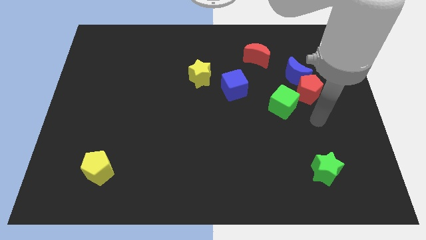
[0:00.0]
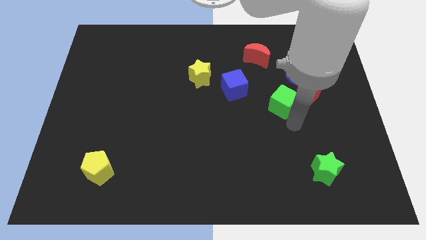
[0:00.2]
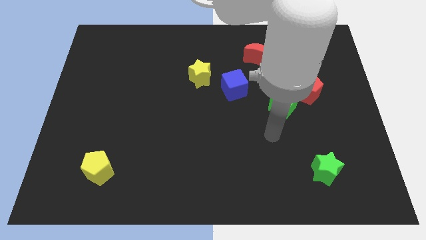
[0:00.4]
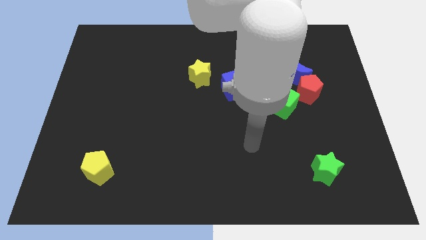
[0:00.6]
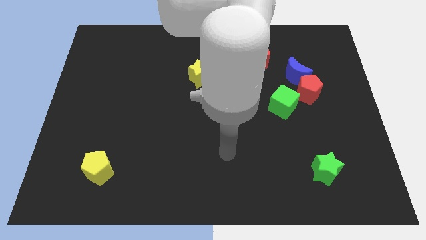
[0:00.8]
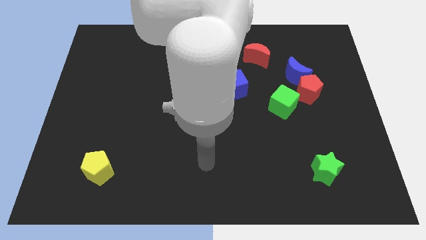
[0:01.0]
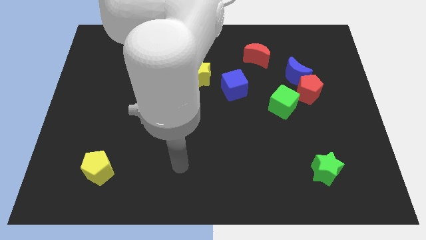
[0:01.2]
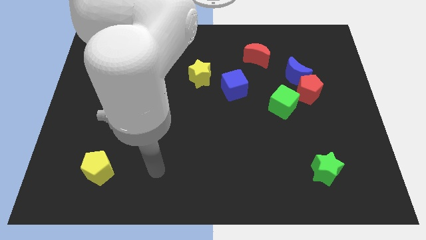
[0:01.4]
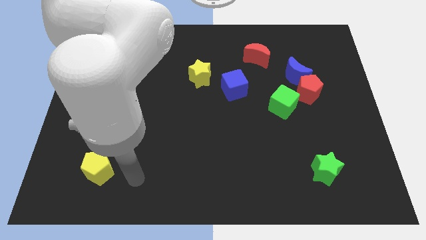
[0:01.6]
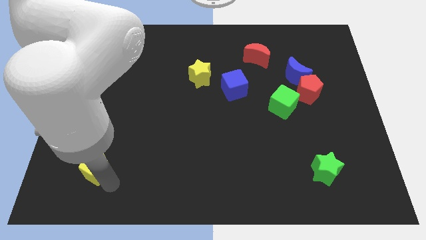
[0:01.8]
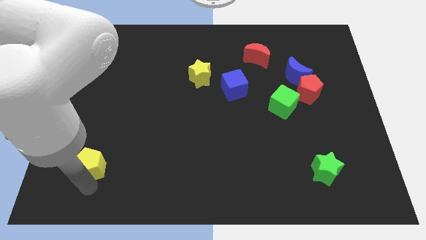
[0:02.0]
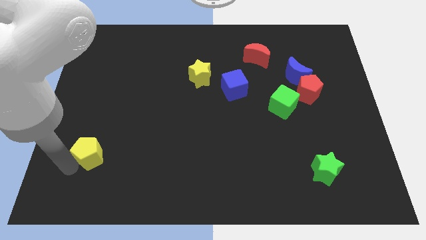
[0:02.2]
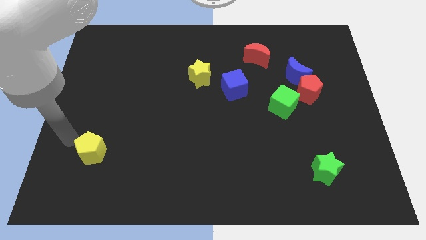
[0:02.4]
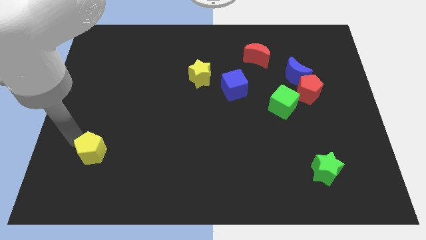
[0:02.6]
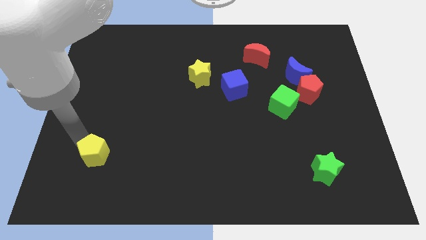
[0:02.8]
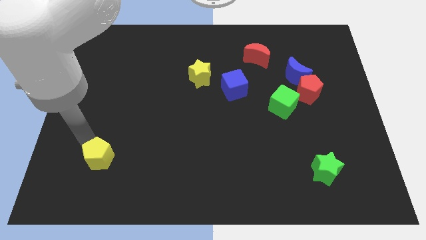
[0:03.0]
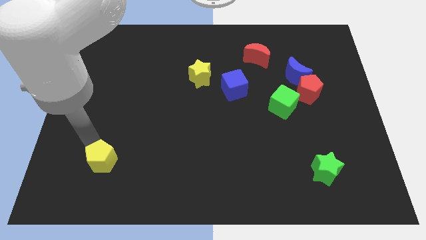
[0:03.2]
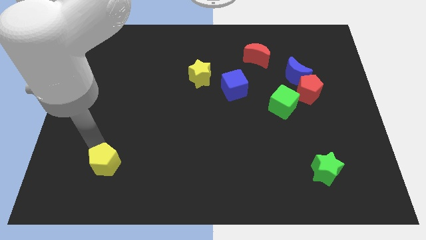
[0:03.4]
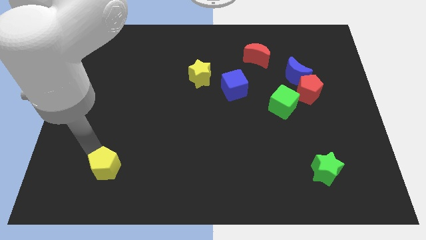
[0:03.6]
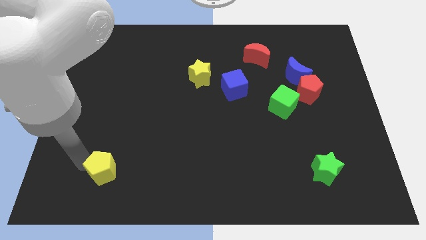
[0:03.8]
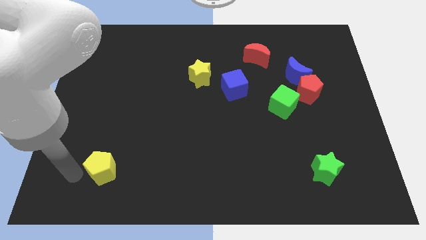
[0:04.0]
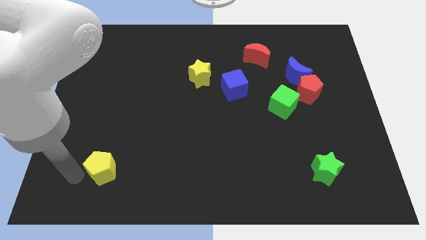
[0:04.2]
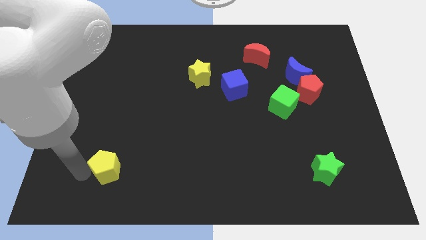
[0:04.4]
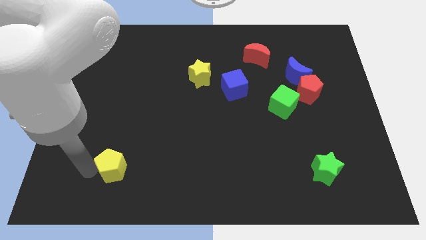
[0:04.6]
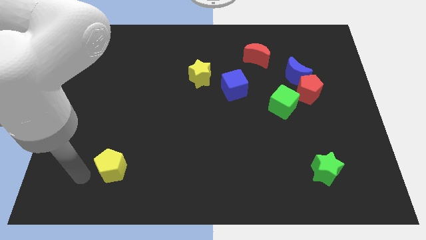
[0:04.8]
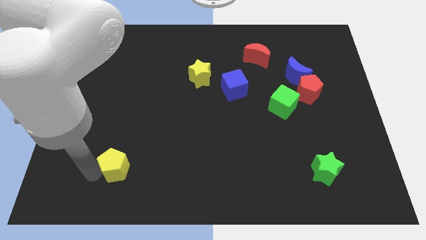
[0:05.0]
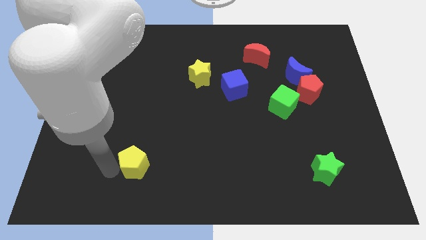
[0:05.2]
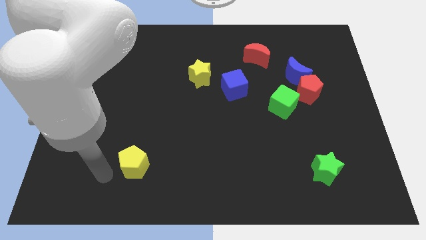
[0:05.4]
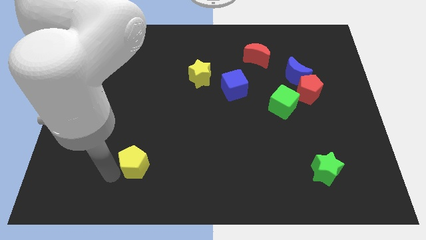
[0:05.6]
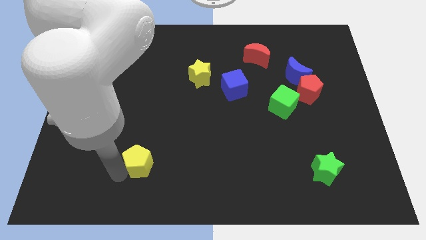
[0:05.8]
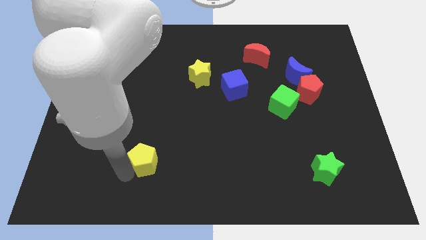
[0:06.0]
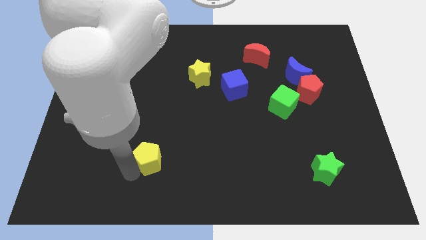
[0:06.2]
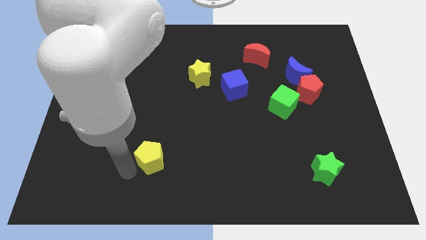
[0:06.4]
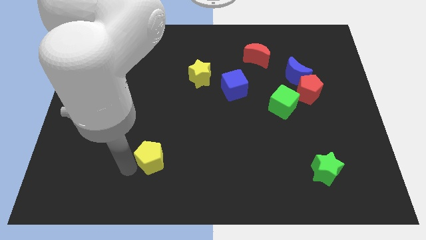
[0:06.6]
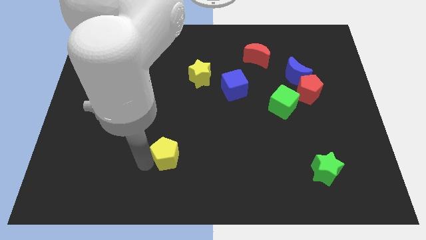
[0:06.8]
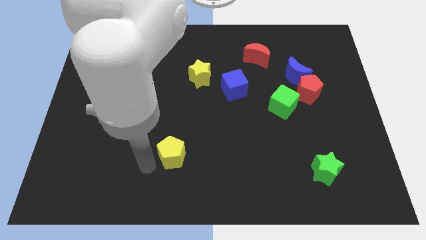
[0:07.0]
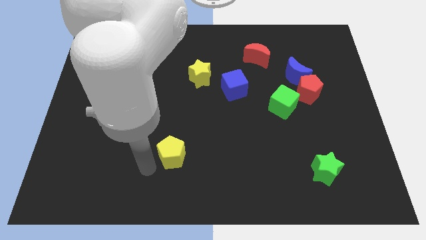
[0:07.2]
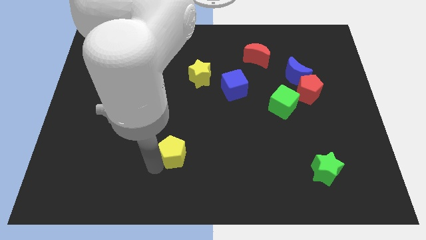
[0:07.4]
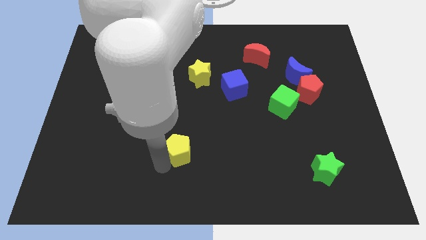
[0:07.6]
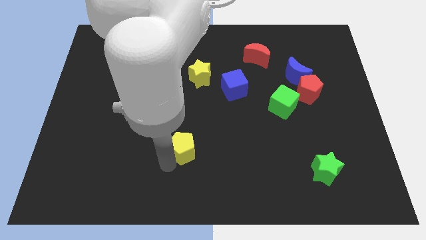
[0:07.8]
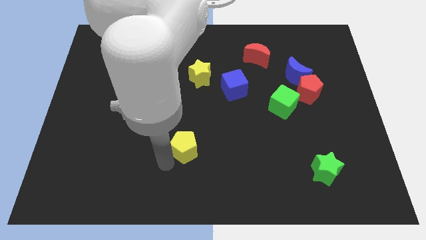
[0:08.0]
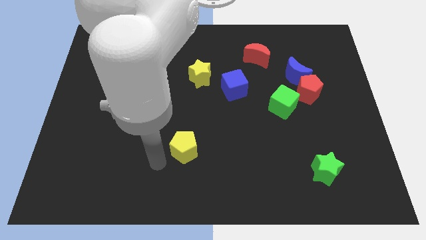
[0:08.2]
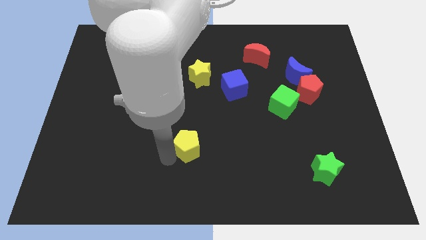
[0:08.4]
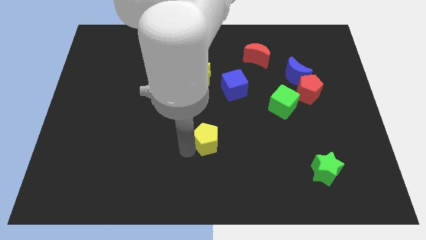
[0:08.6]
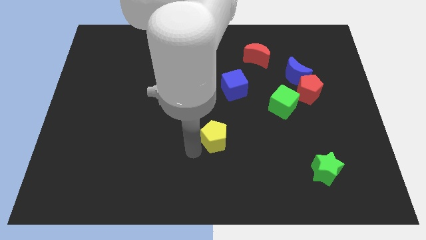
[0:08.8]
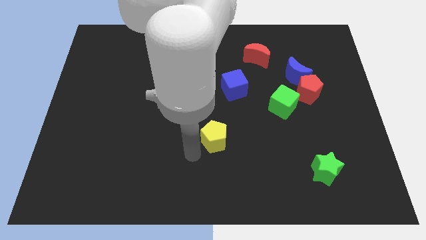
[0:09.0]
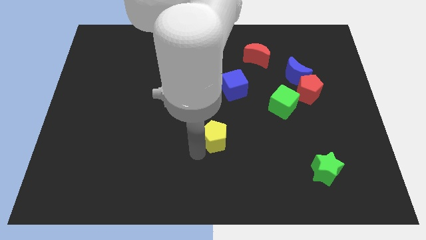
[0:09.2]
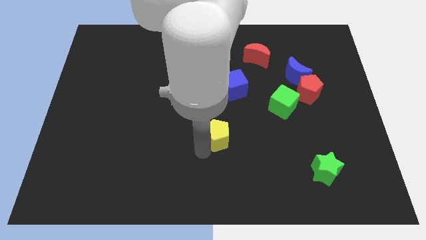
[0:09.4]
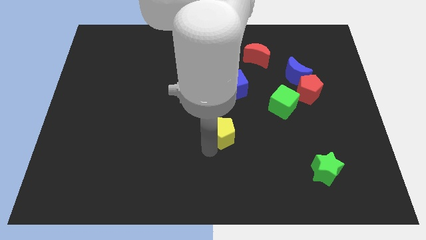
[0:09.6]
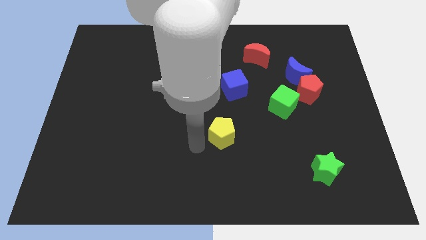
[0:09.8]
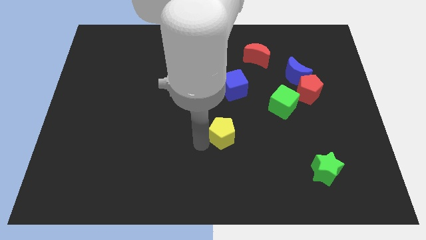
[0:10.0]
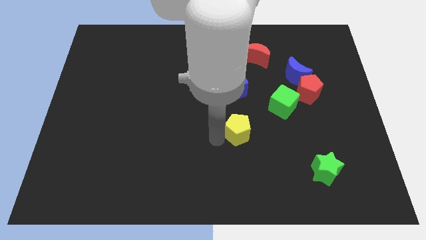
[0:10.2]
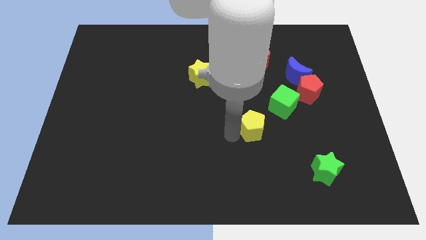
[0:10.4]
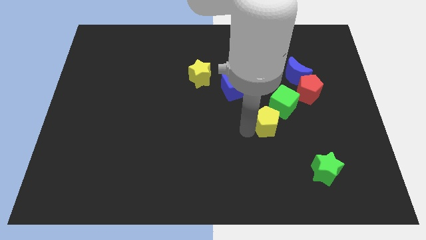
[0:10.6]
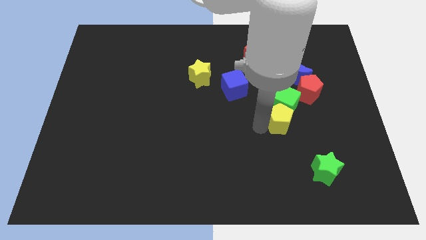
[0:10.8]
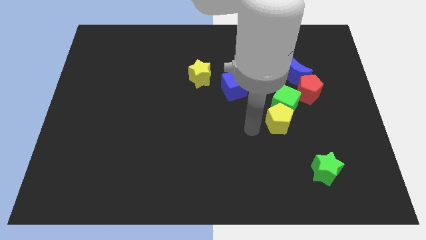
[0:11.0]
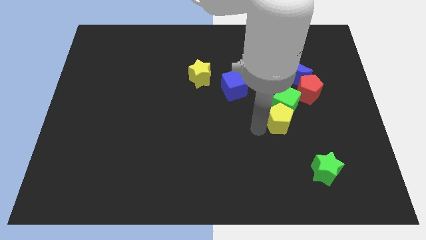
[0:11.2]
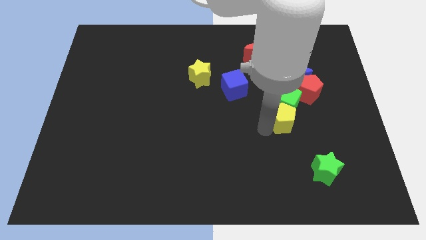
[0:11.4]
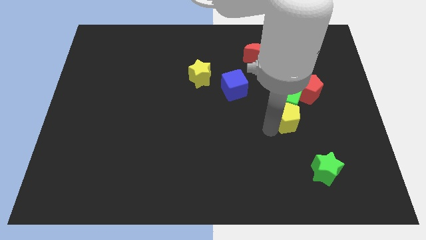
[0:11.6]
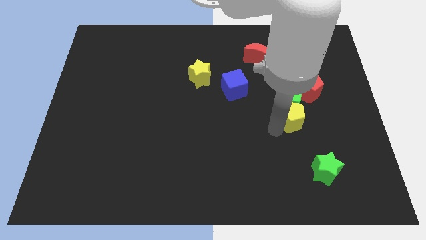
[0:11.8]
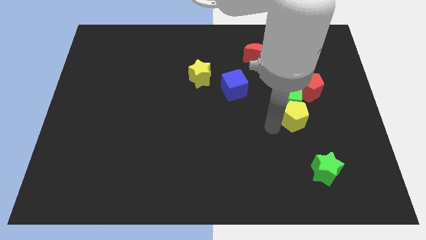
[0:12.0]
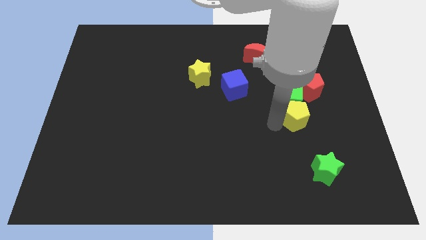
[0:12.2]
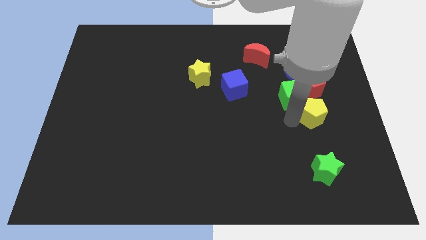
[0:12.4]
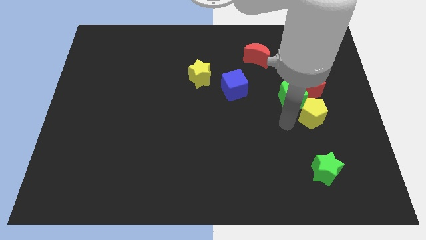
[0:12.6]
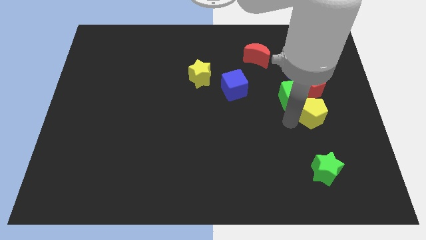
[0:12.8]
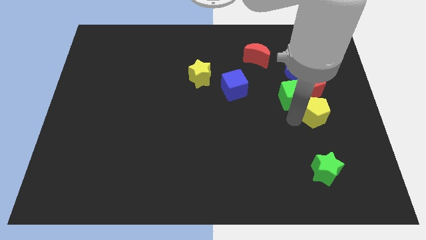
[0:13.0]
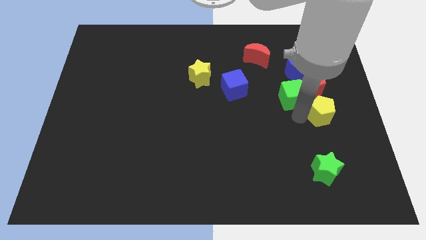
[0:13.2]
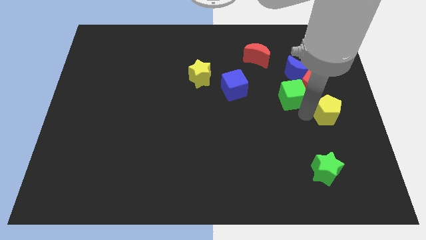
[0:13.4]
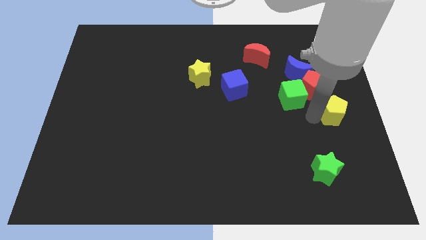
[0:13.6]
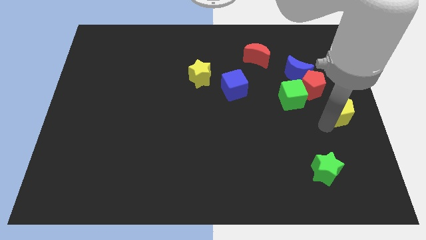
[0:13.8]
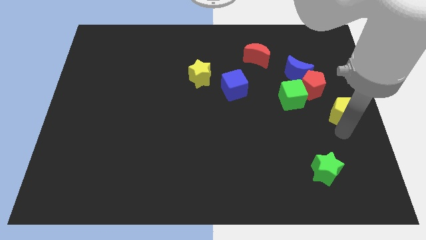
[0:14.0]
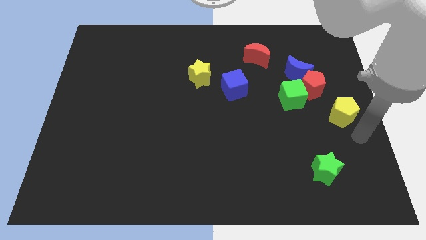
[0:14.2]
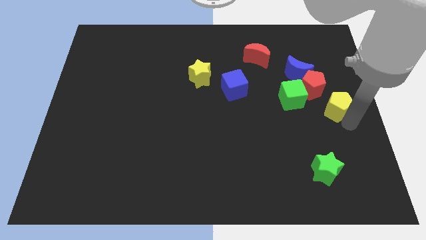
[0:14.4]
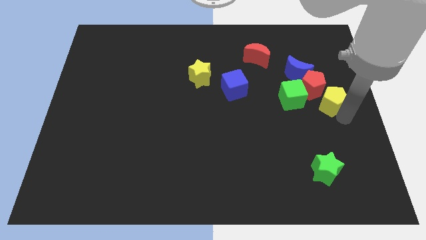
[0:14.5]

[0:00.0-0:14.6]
slide the yellow pentagon diagonally down and to the right of the blue moon
